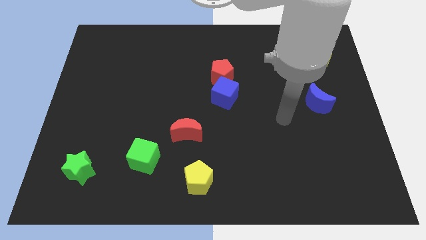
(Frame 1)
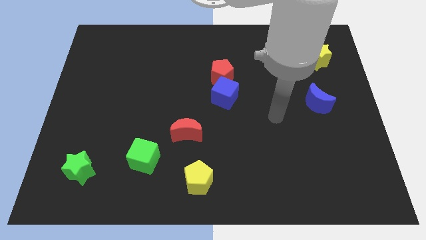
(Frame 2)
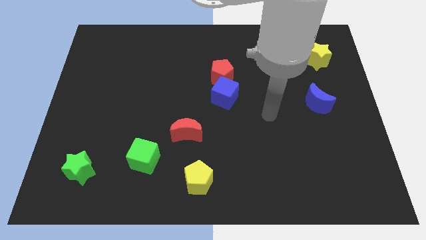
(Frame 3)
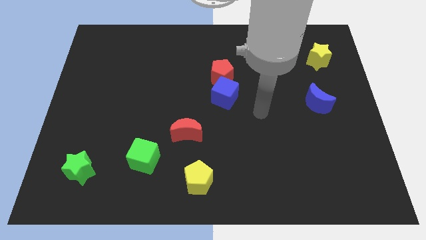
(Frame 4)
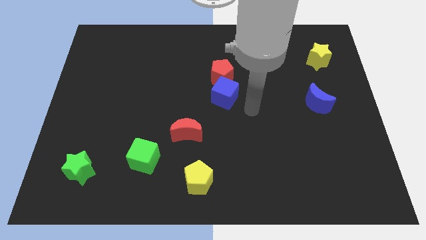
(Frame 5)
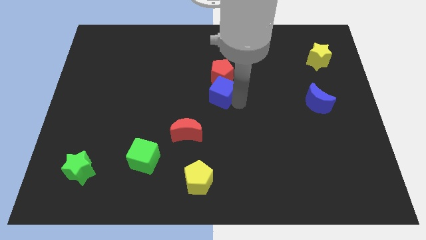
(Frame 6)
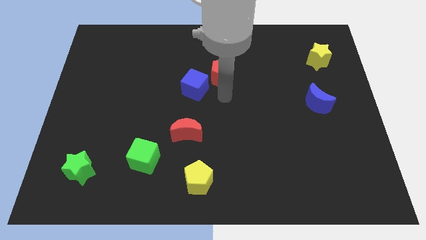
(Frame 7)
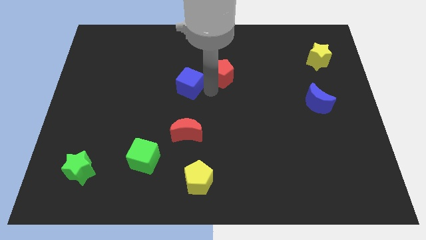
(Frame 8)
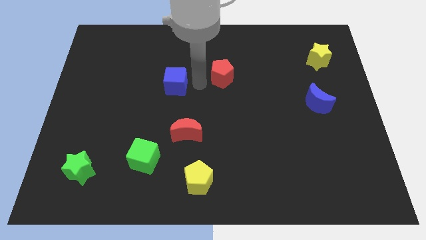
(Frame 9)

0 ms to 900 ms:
separate the red pentagon from the blue cube

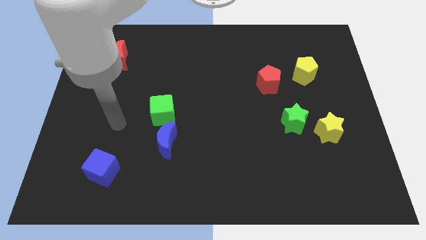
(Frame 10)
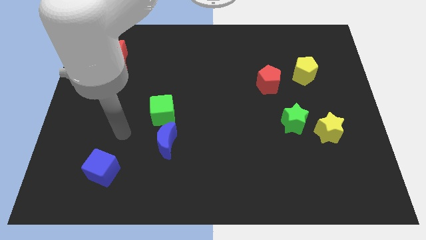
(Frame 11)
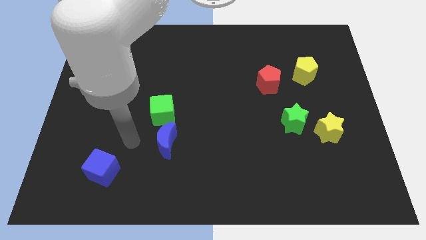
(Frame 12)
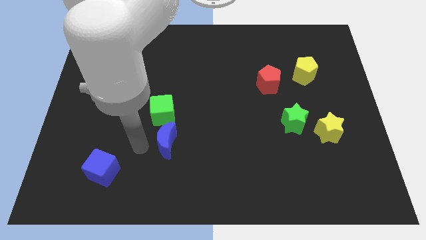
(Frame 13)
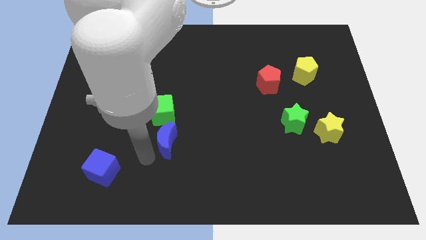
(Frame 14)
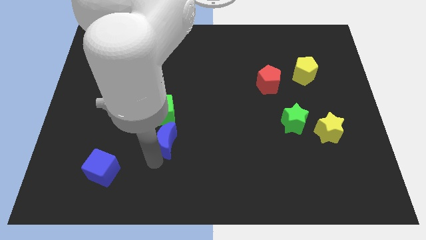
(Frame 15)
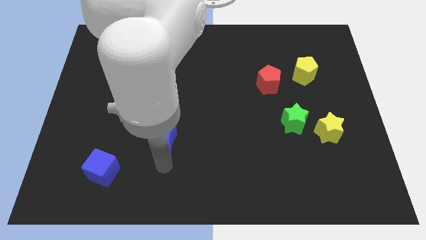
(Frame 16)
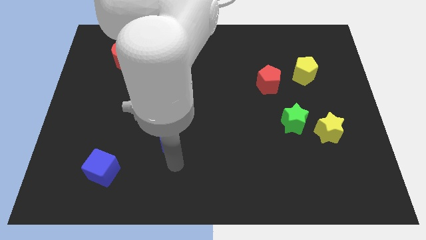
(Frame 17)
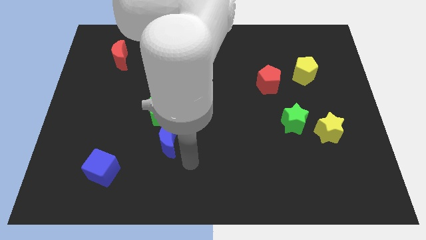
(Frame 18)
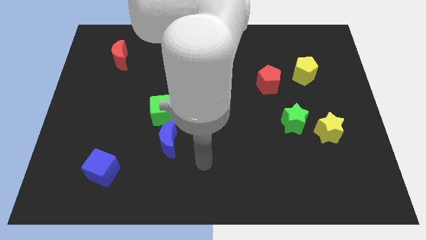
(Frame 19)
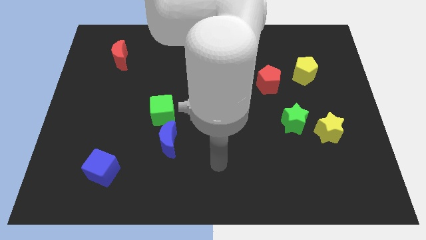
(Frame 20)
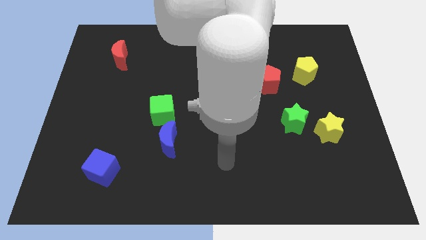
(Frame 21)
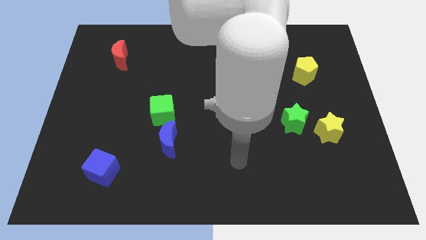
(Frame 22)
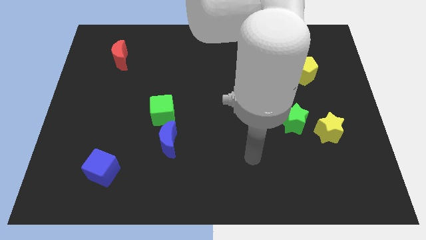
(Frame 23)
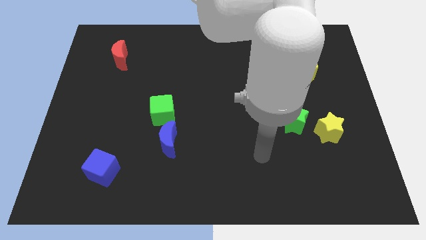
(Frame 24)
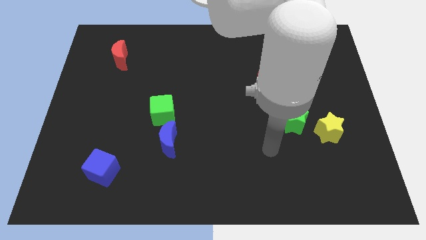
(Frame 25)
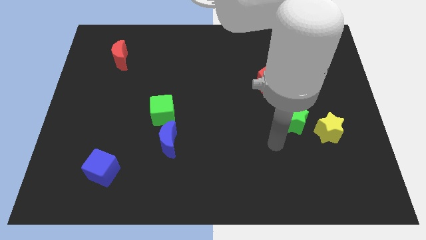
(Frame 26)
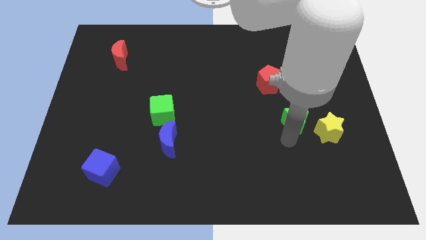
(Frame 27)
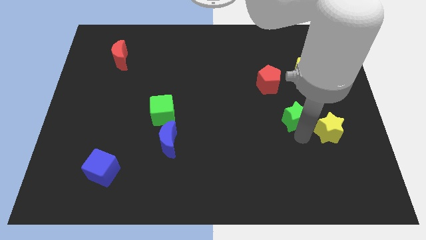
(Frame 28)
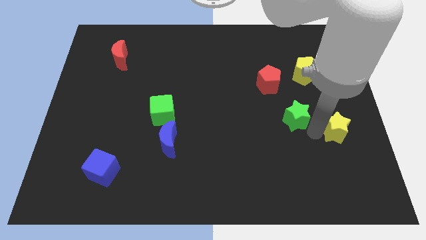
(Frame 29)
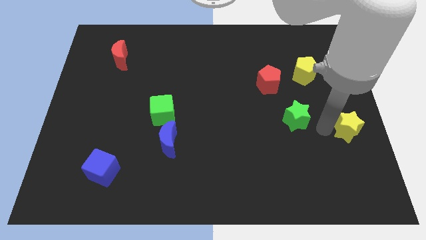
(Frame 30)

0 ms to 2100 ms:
pull the green star apart from the yellow star

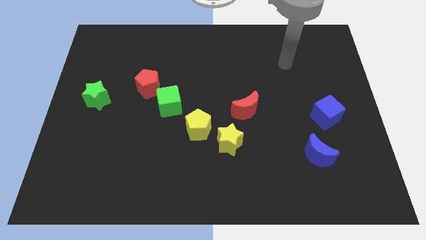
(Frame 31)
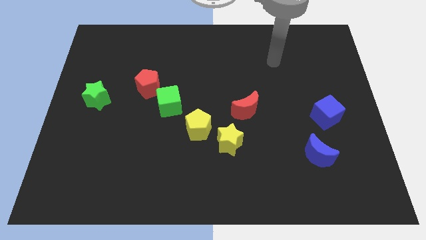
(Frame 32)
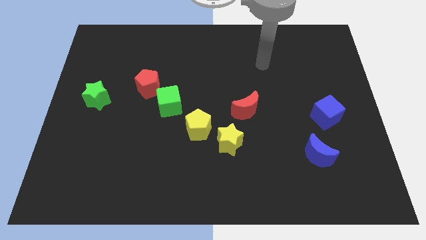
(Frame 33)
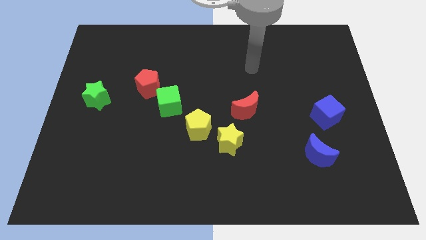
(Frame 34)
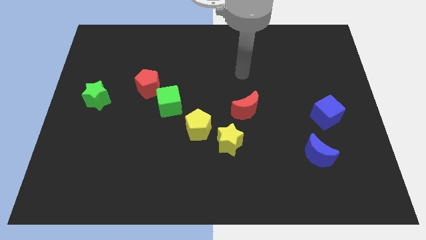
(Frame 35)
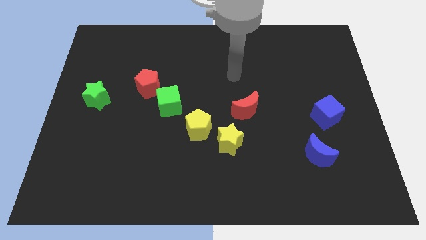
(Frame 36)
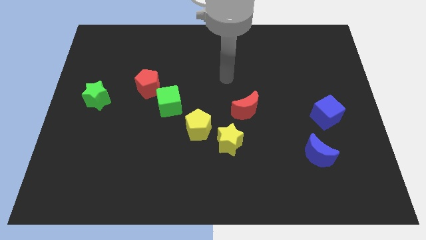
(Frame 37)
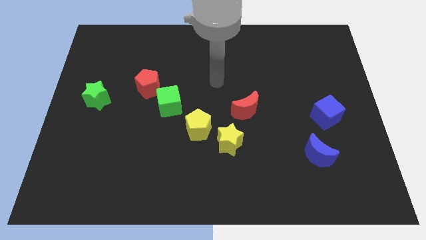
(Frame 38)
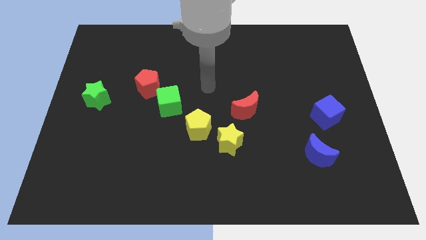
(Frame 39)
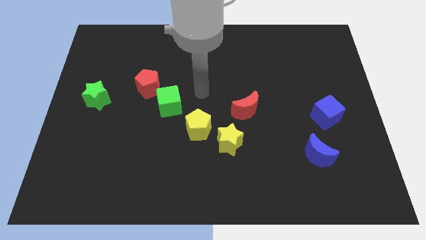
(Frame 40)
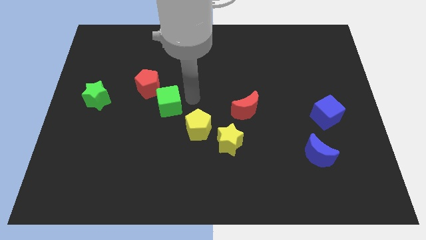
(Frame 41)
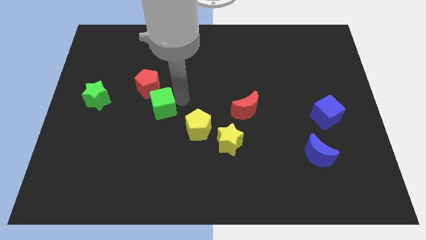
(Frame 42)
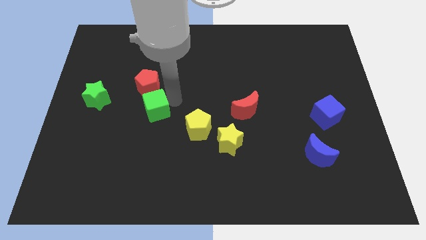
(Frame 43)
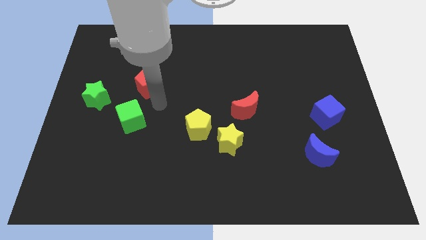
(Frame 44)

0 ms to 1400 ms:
separate the red pentagon from the green cube

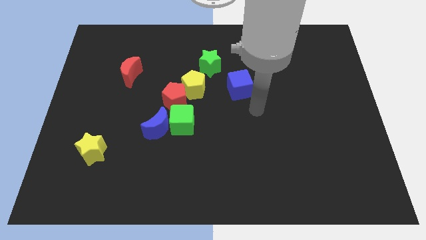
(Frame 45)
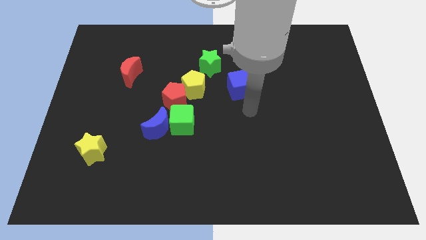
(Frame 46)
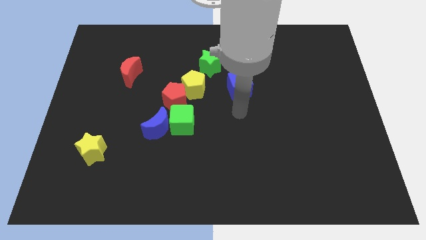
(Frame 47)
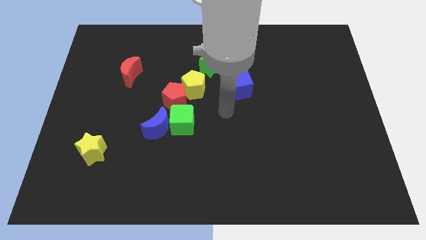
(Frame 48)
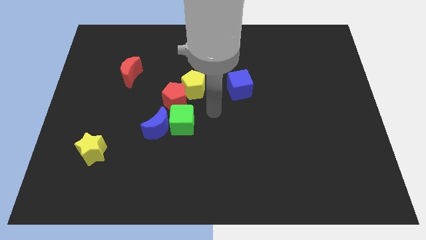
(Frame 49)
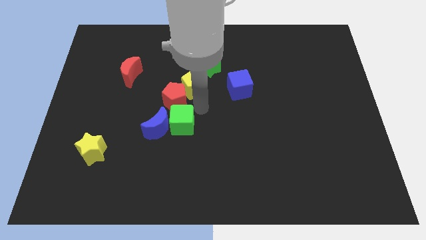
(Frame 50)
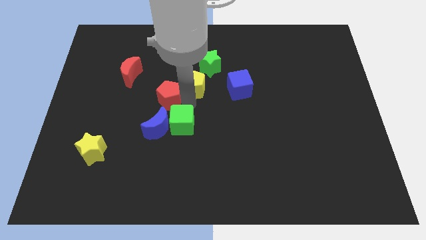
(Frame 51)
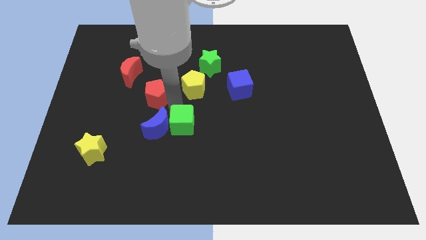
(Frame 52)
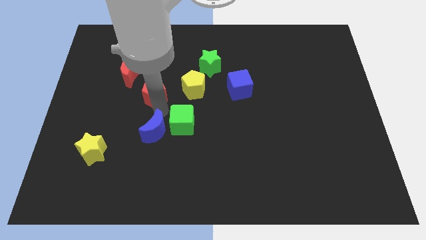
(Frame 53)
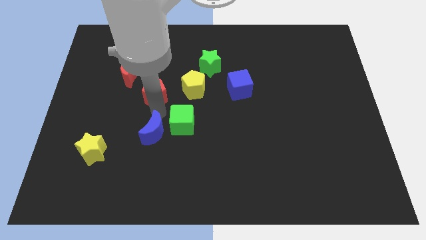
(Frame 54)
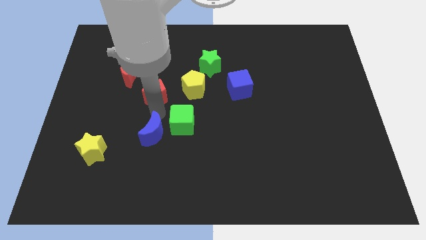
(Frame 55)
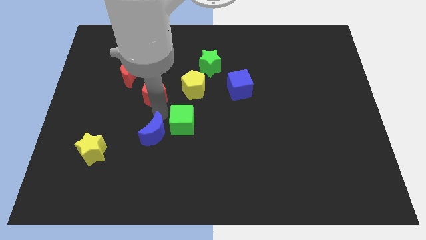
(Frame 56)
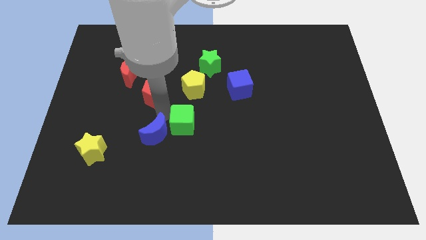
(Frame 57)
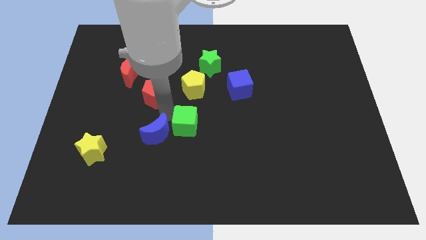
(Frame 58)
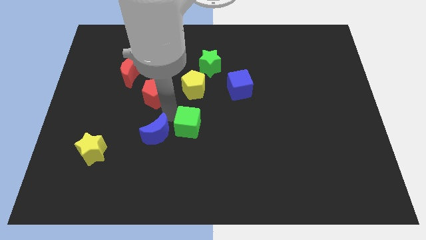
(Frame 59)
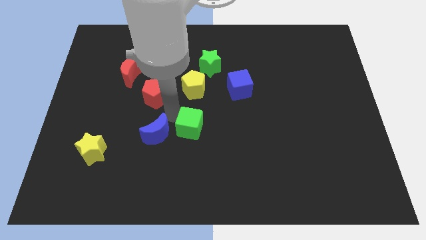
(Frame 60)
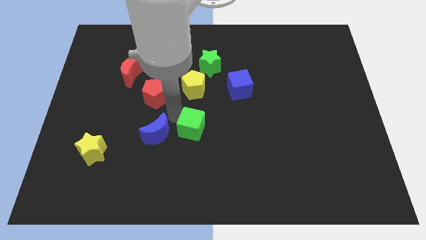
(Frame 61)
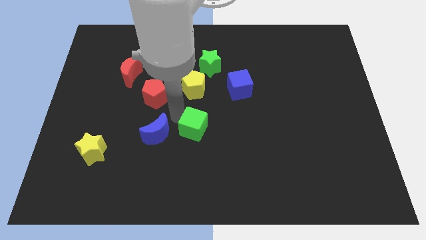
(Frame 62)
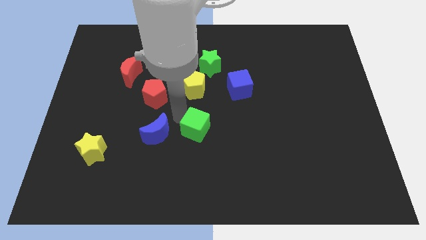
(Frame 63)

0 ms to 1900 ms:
move the green cube away from the blue moon and red pentagon

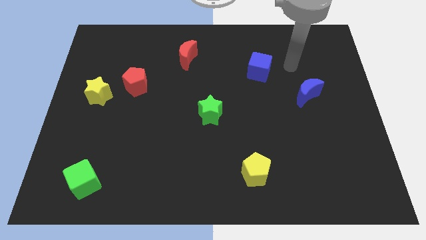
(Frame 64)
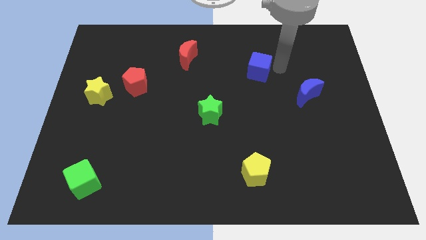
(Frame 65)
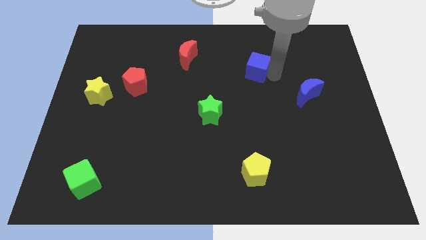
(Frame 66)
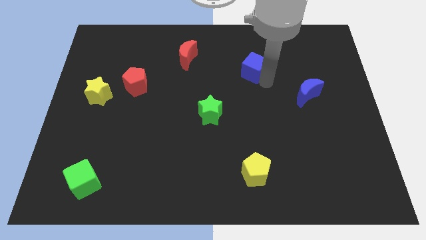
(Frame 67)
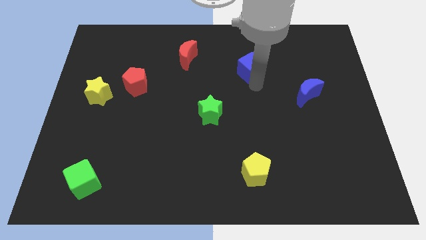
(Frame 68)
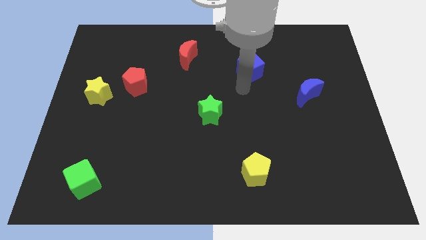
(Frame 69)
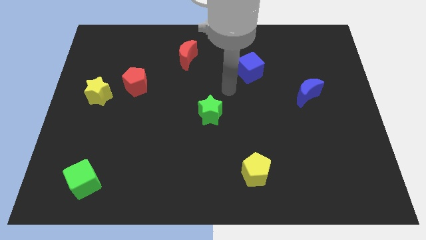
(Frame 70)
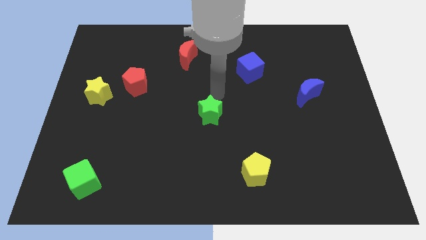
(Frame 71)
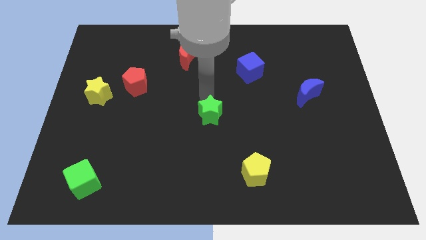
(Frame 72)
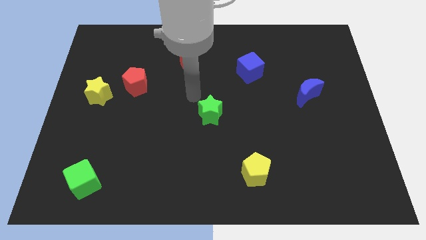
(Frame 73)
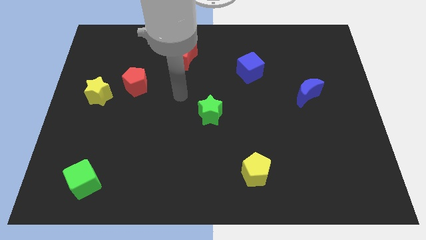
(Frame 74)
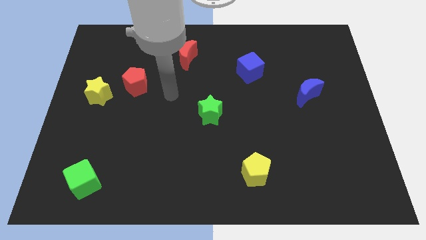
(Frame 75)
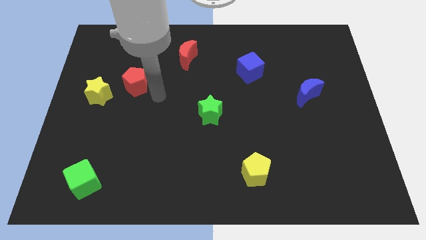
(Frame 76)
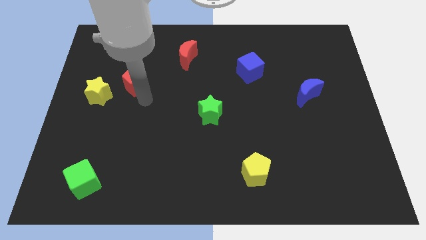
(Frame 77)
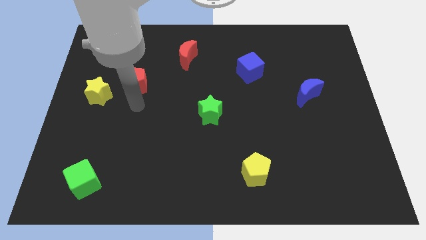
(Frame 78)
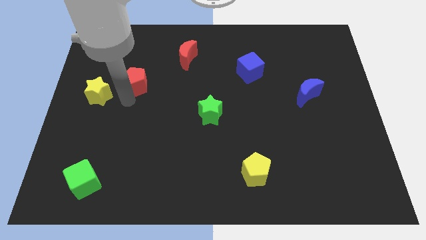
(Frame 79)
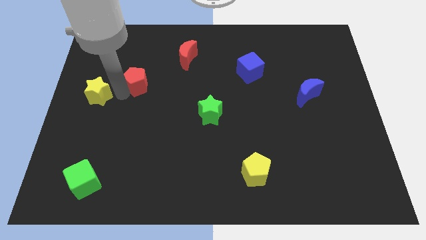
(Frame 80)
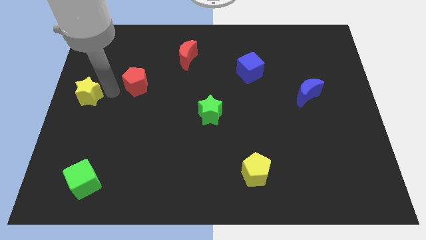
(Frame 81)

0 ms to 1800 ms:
move the red pentagon away from the yellow star
